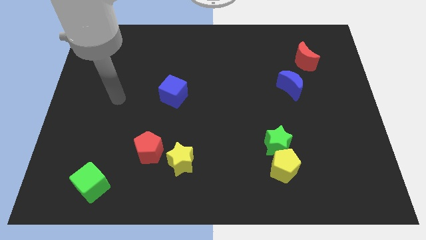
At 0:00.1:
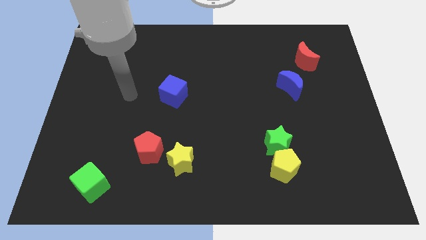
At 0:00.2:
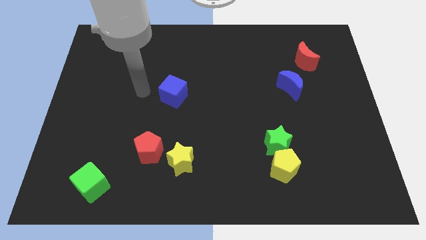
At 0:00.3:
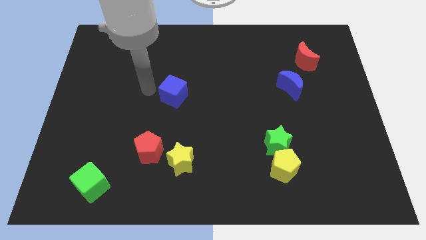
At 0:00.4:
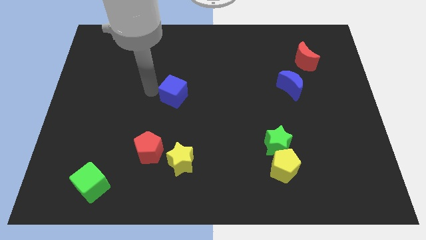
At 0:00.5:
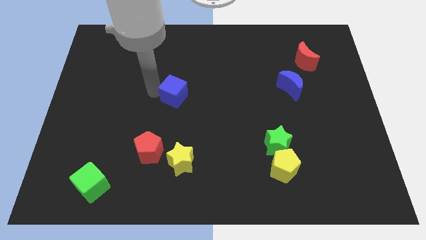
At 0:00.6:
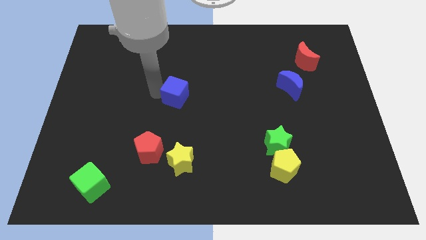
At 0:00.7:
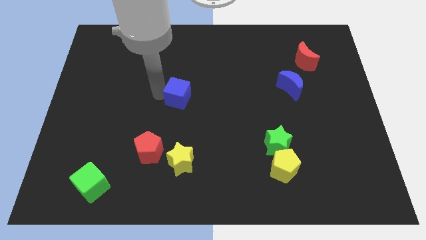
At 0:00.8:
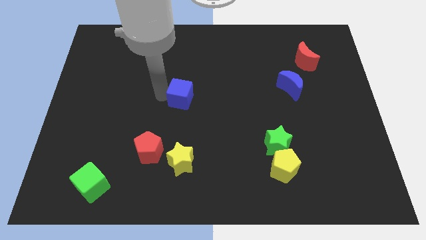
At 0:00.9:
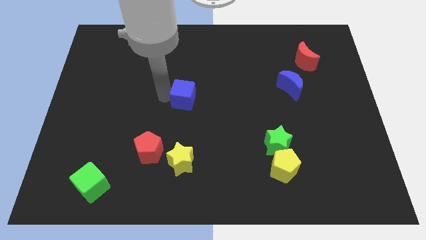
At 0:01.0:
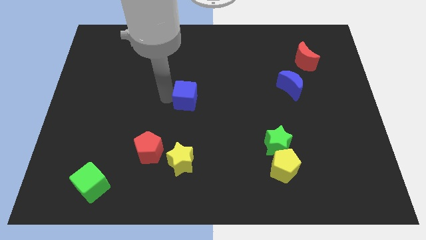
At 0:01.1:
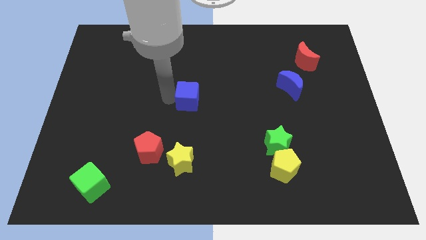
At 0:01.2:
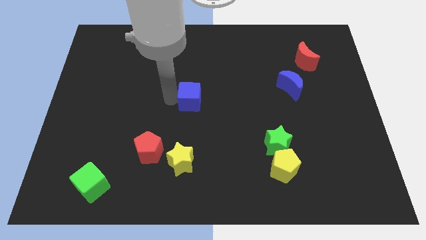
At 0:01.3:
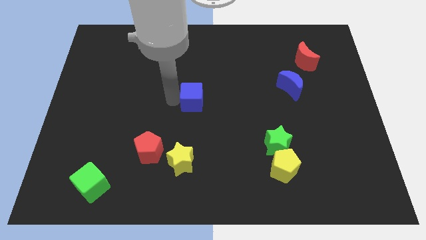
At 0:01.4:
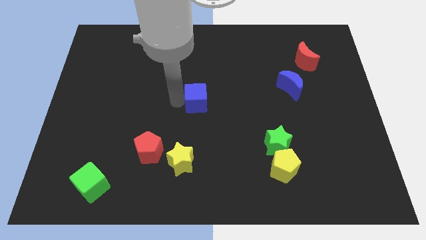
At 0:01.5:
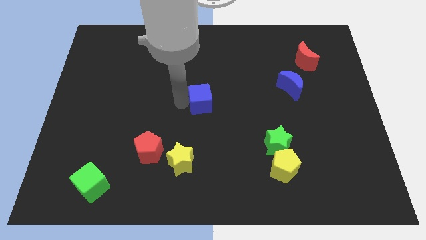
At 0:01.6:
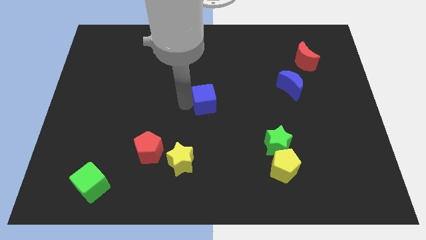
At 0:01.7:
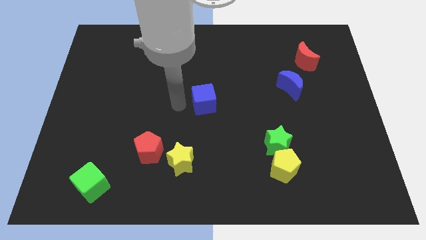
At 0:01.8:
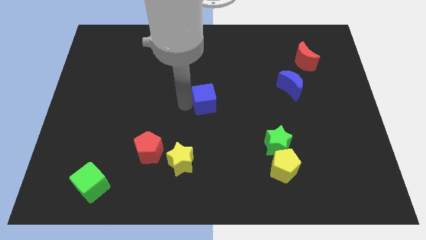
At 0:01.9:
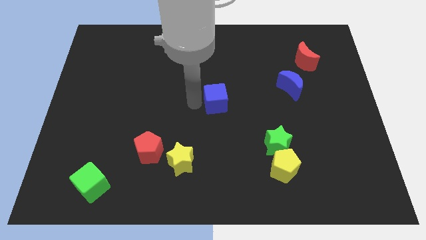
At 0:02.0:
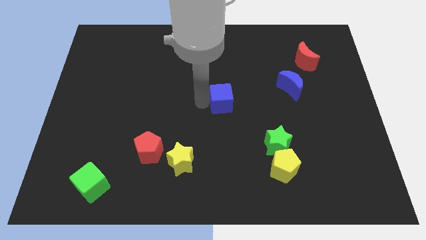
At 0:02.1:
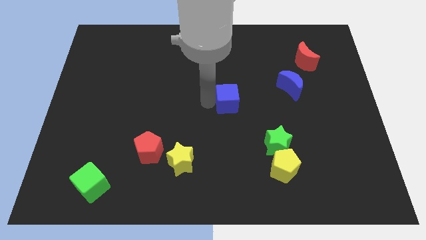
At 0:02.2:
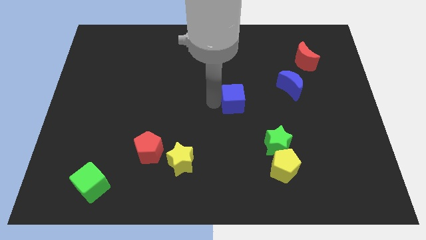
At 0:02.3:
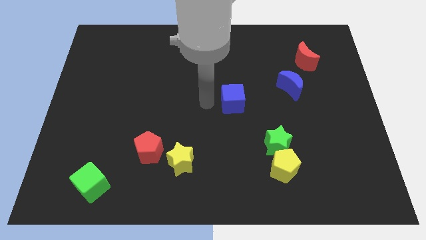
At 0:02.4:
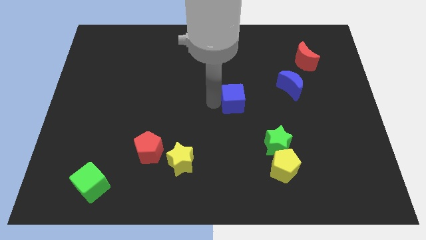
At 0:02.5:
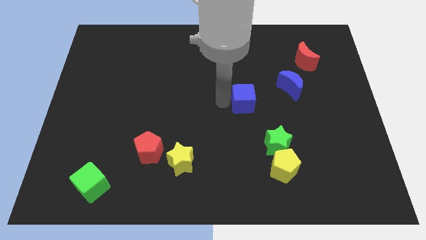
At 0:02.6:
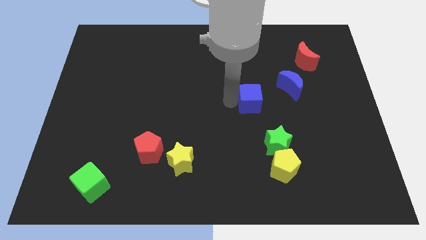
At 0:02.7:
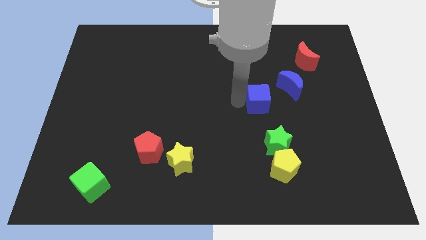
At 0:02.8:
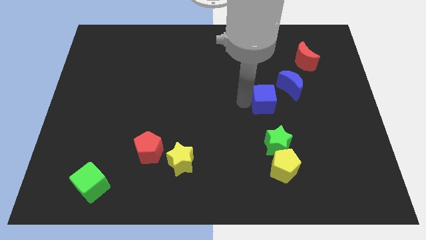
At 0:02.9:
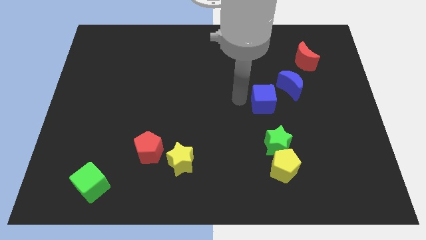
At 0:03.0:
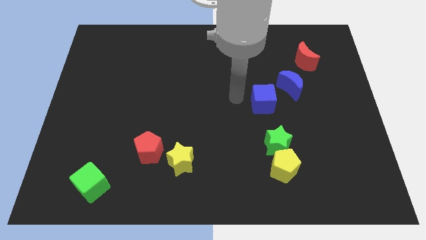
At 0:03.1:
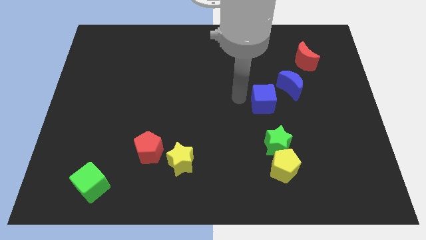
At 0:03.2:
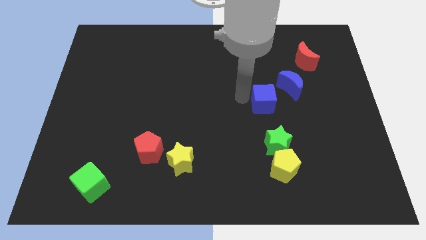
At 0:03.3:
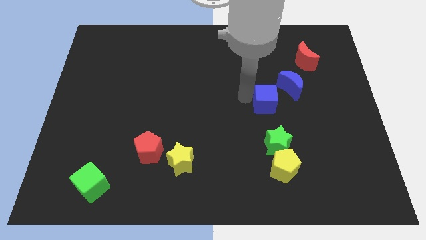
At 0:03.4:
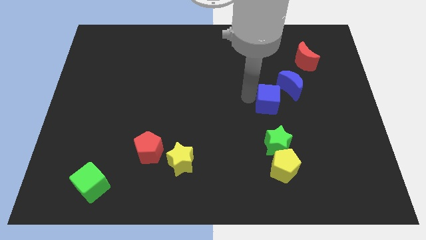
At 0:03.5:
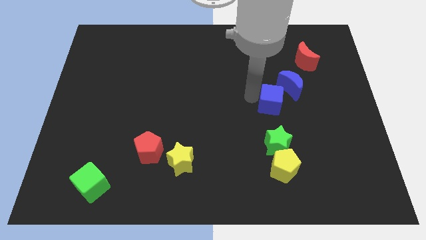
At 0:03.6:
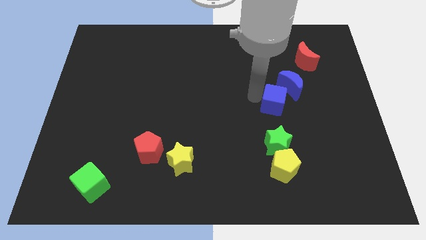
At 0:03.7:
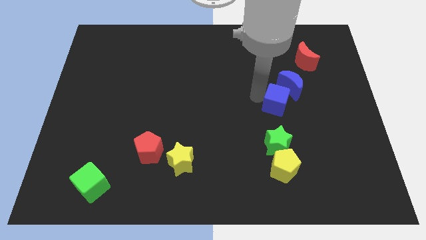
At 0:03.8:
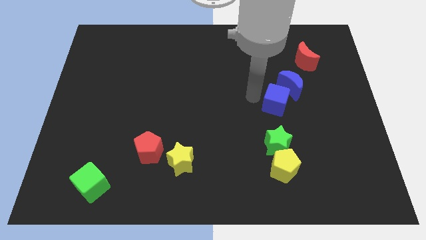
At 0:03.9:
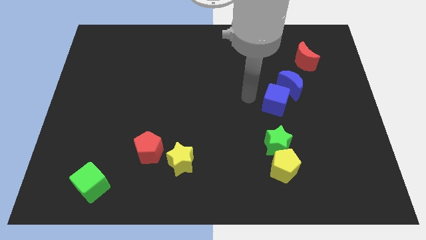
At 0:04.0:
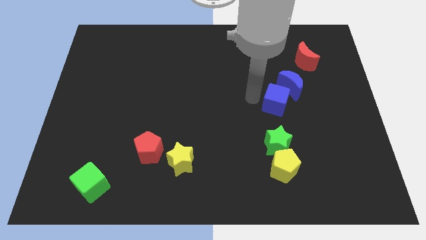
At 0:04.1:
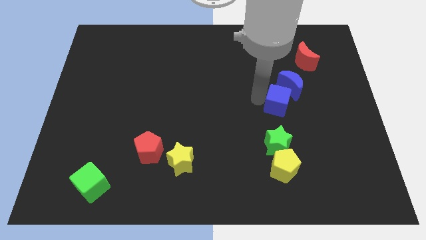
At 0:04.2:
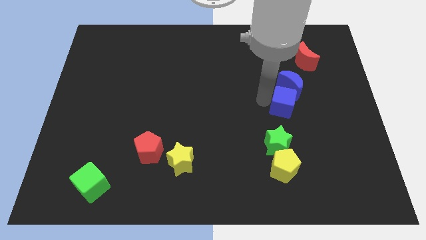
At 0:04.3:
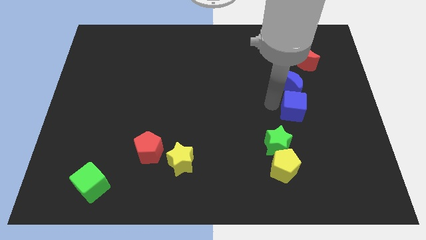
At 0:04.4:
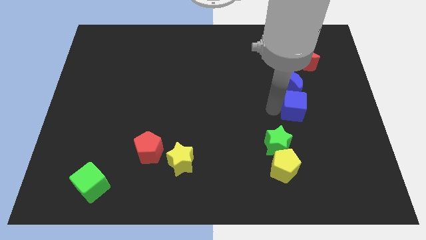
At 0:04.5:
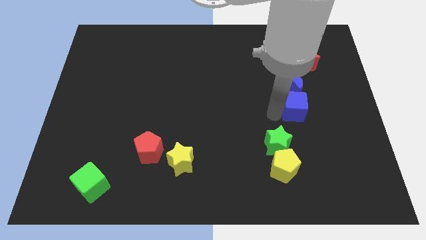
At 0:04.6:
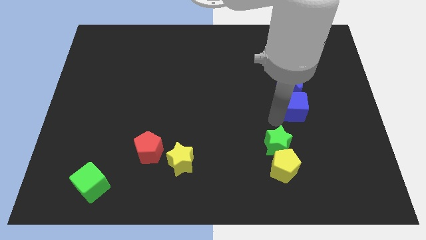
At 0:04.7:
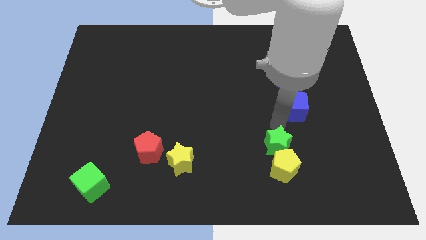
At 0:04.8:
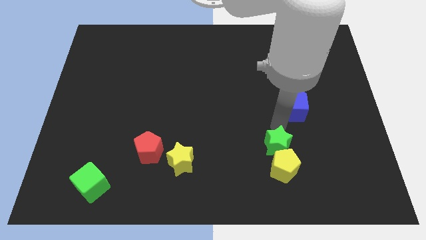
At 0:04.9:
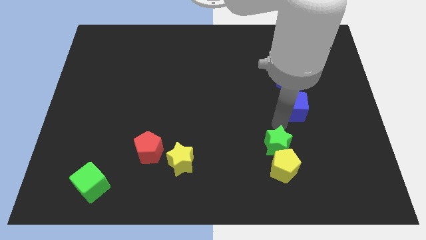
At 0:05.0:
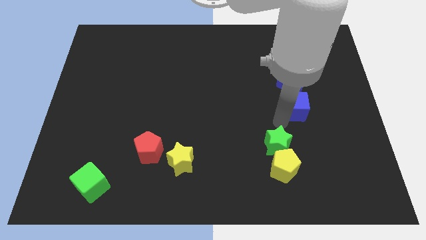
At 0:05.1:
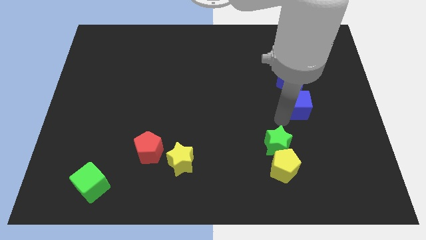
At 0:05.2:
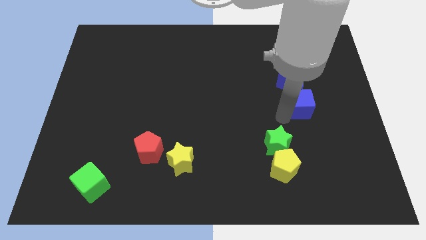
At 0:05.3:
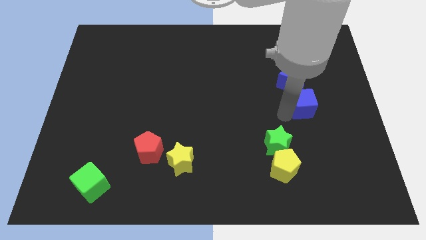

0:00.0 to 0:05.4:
move the blue cube below the red moon

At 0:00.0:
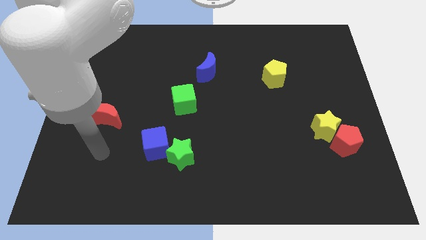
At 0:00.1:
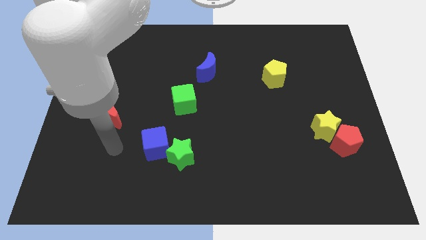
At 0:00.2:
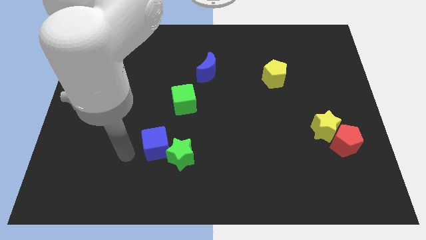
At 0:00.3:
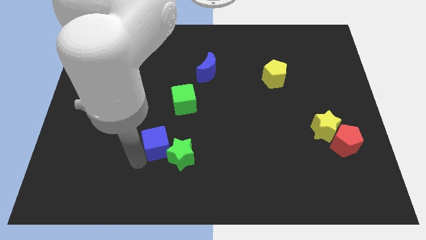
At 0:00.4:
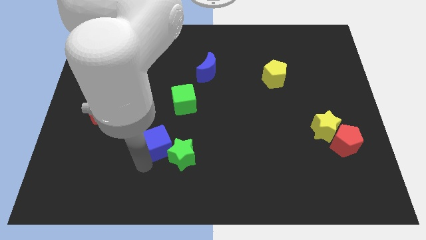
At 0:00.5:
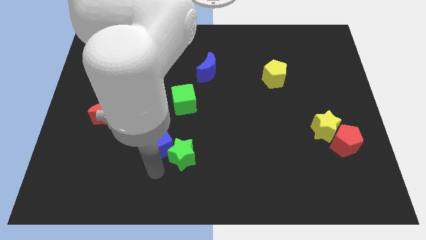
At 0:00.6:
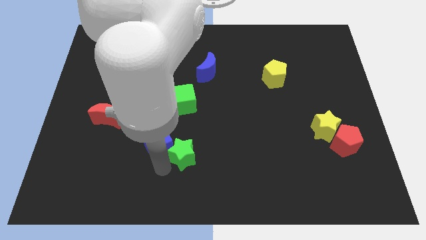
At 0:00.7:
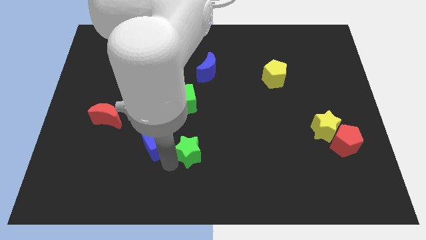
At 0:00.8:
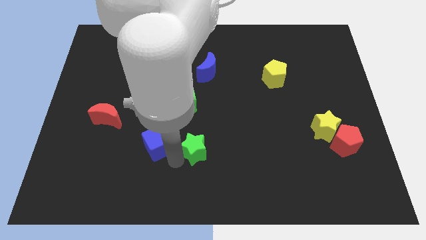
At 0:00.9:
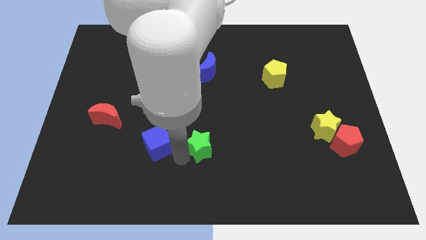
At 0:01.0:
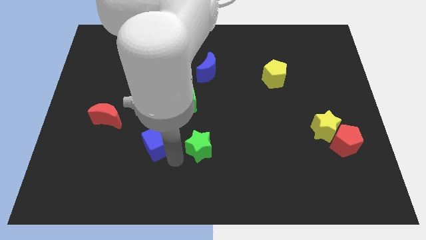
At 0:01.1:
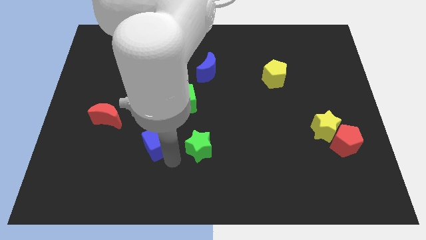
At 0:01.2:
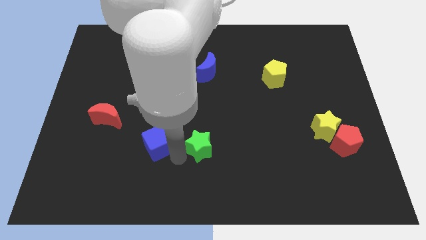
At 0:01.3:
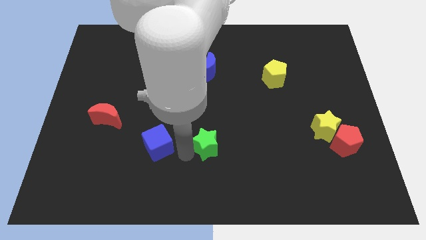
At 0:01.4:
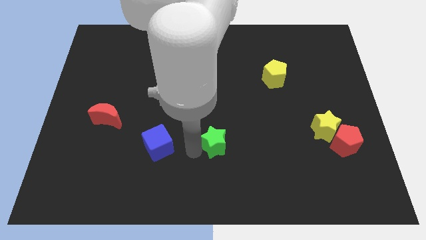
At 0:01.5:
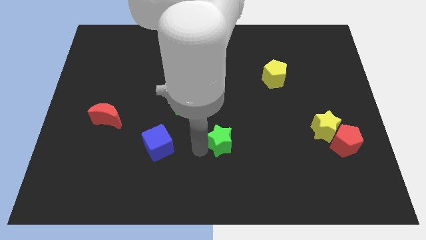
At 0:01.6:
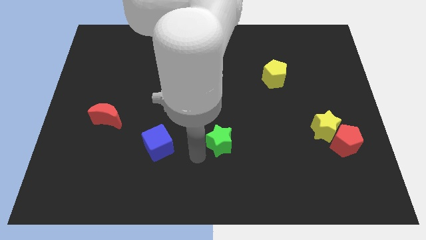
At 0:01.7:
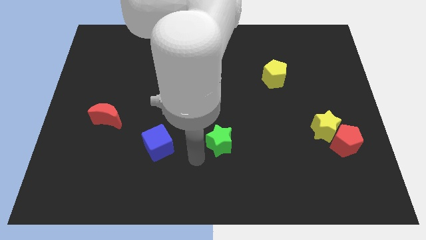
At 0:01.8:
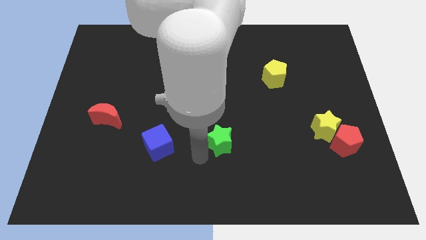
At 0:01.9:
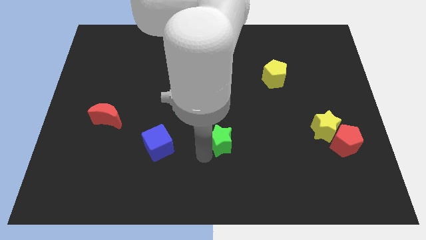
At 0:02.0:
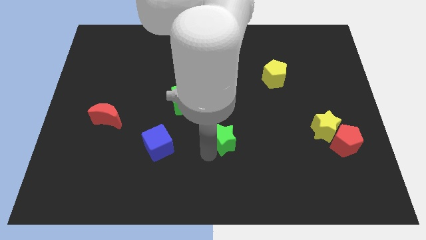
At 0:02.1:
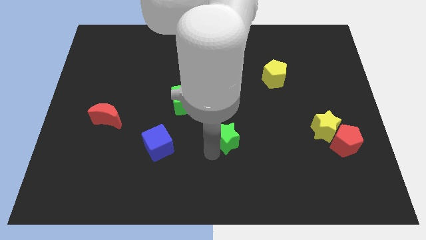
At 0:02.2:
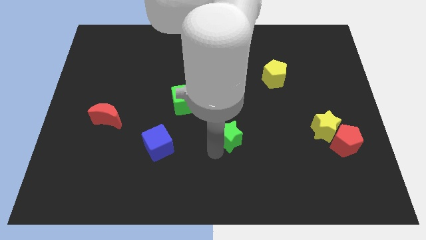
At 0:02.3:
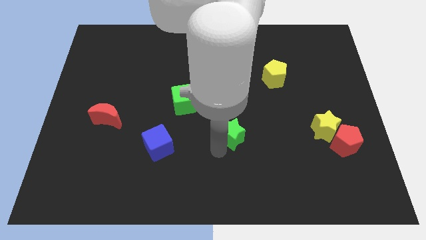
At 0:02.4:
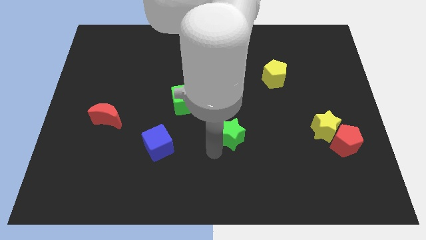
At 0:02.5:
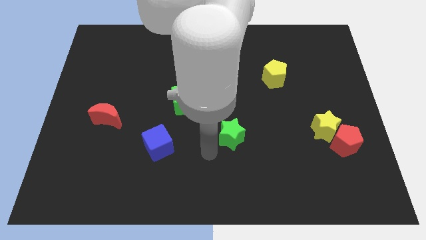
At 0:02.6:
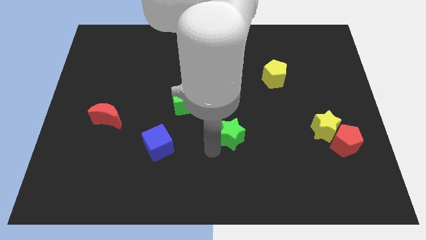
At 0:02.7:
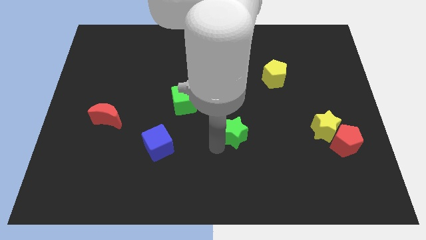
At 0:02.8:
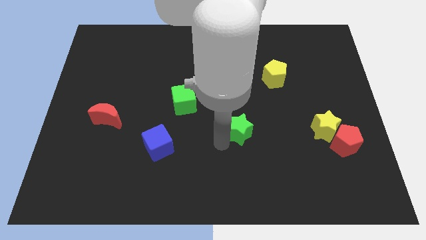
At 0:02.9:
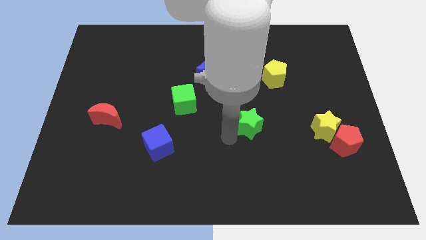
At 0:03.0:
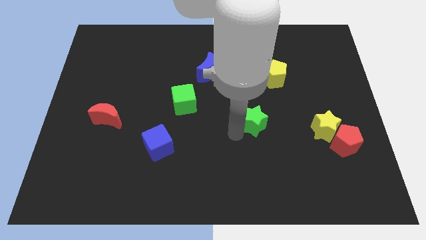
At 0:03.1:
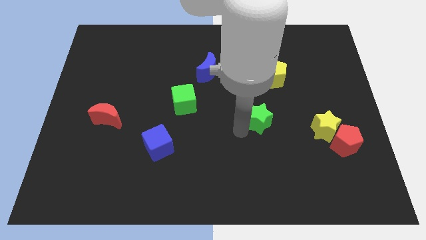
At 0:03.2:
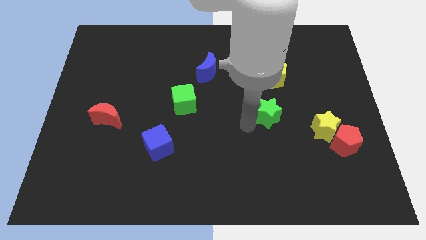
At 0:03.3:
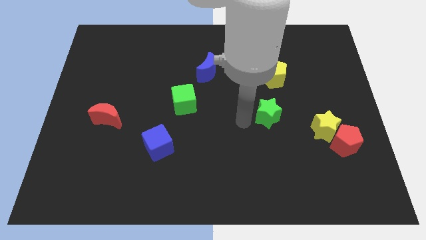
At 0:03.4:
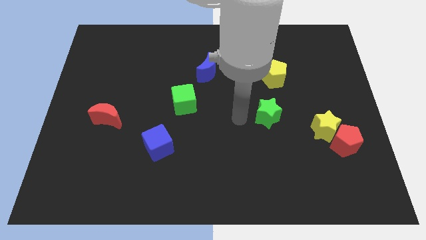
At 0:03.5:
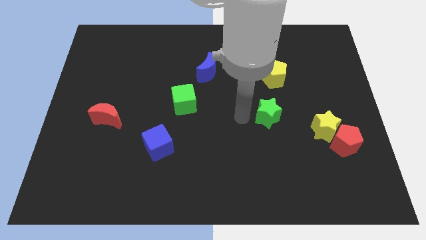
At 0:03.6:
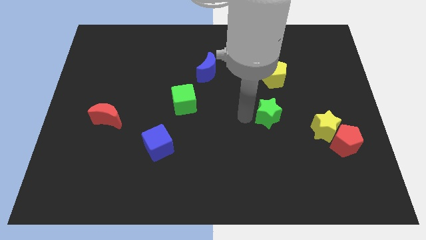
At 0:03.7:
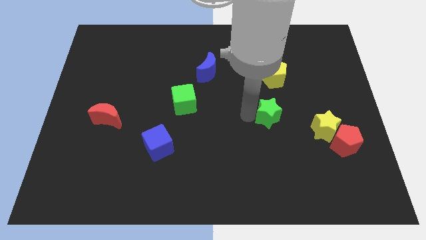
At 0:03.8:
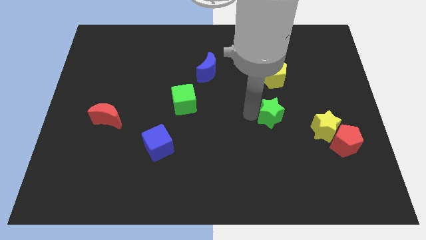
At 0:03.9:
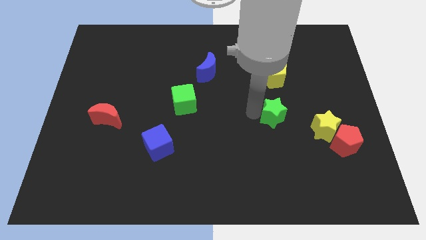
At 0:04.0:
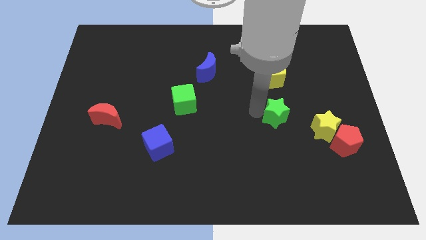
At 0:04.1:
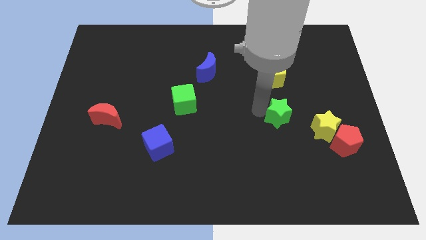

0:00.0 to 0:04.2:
slide the green star to the top left of the yellow star
